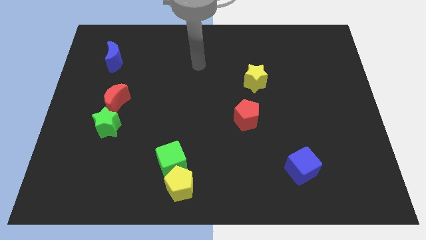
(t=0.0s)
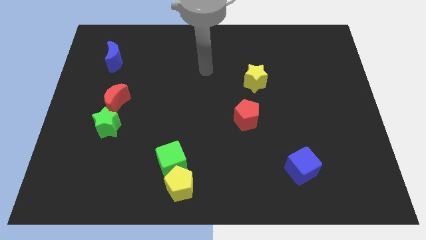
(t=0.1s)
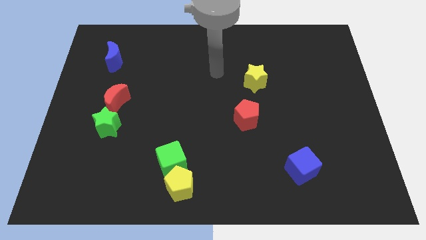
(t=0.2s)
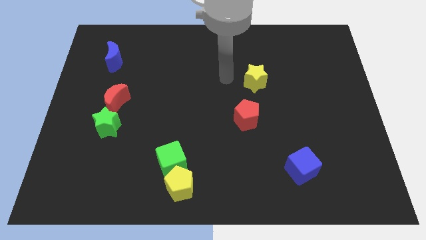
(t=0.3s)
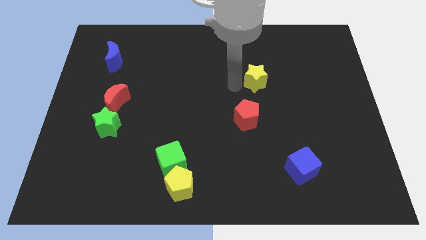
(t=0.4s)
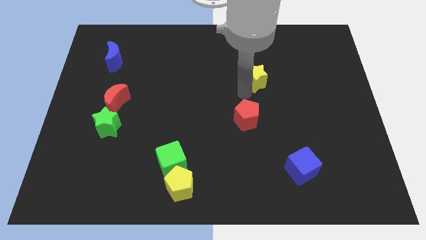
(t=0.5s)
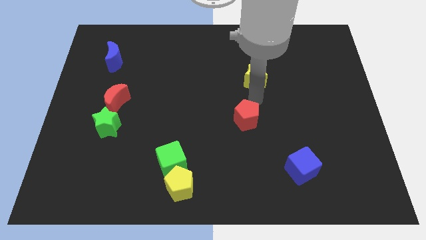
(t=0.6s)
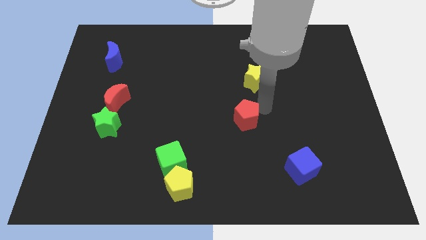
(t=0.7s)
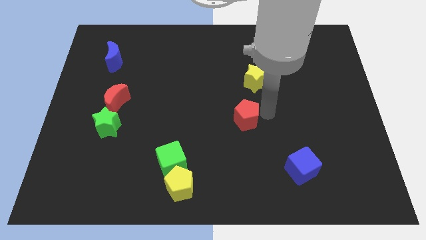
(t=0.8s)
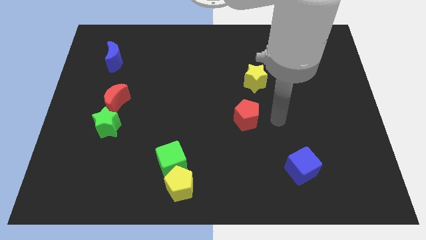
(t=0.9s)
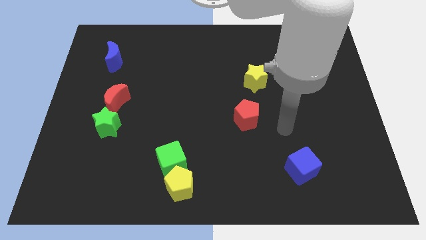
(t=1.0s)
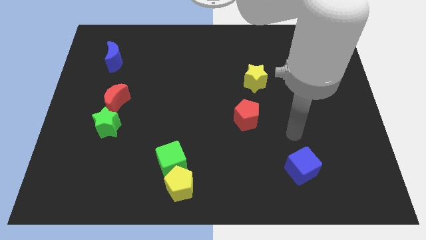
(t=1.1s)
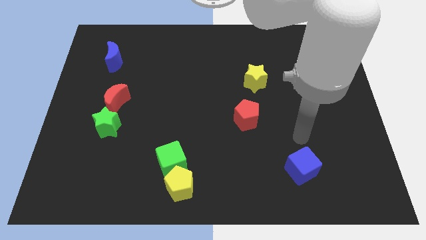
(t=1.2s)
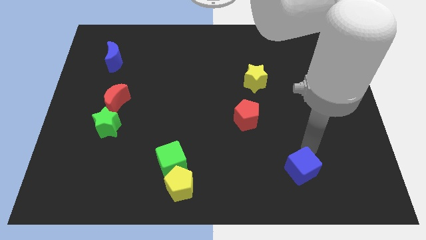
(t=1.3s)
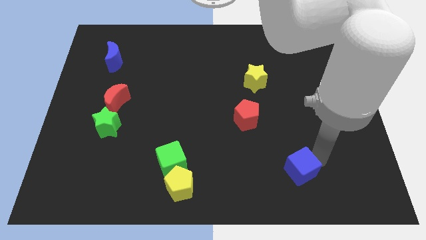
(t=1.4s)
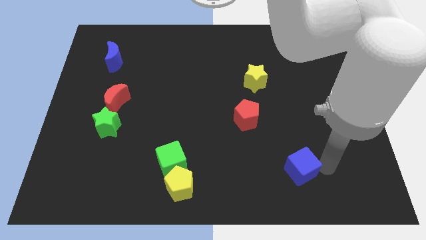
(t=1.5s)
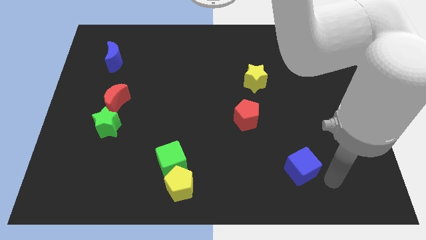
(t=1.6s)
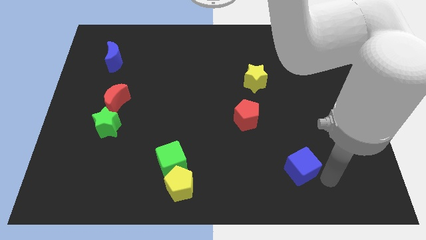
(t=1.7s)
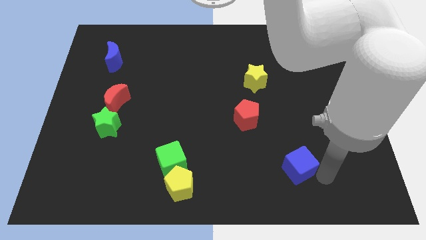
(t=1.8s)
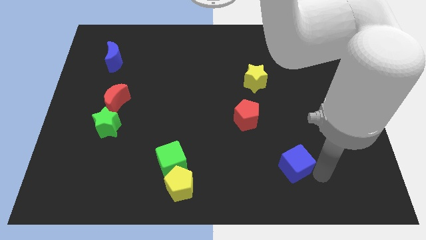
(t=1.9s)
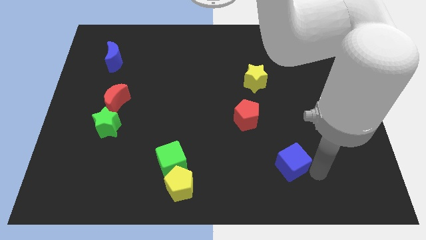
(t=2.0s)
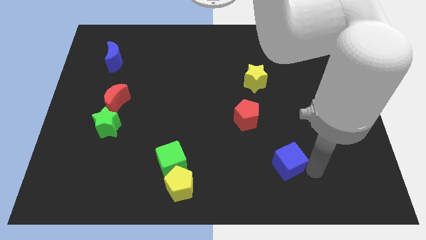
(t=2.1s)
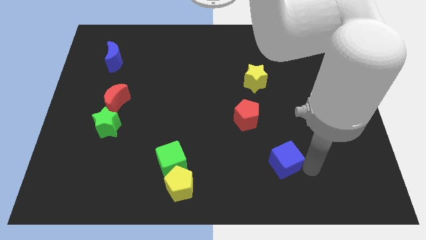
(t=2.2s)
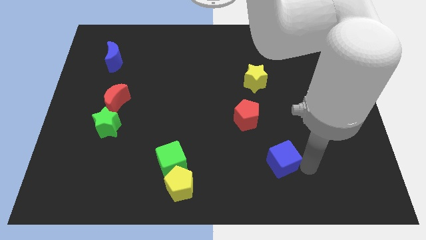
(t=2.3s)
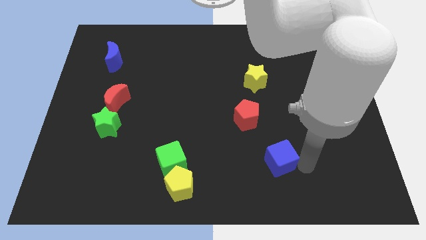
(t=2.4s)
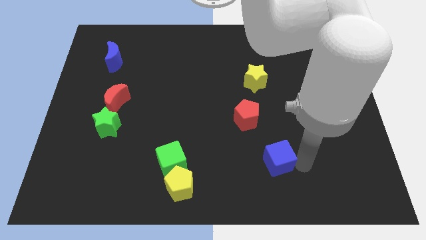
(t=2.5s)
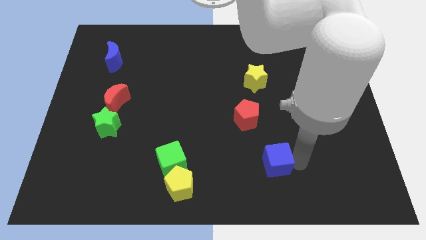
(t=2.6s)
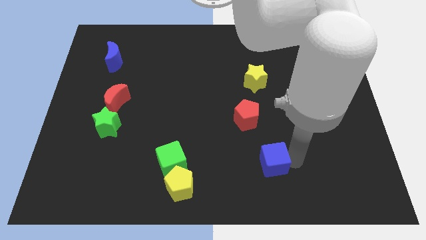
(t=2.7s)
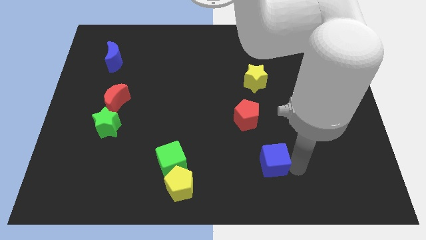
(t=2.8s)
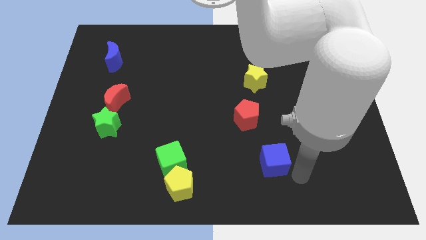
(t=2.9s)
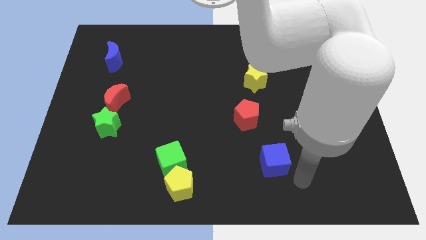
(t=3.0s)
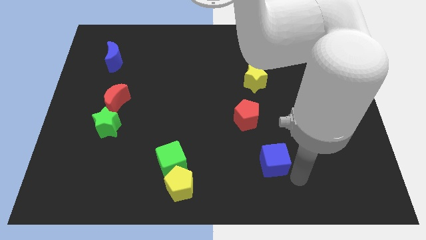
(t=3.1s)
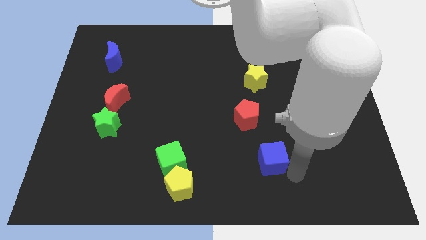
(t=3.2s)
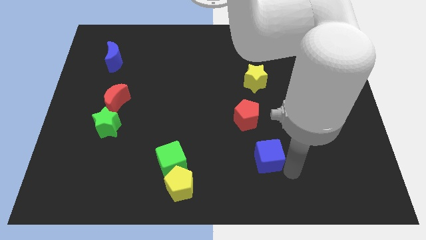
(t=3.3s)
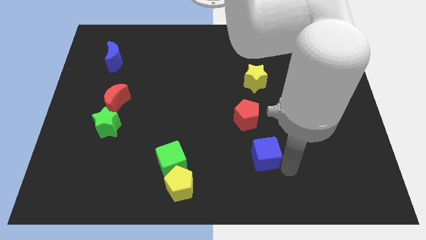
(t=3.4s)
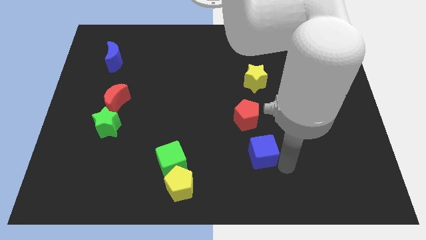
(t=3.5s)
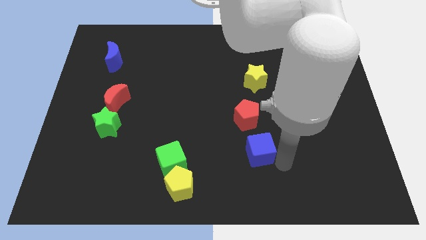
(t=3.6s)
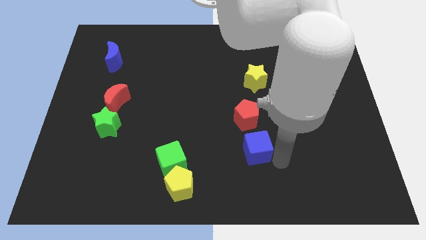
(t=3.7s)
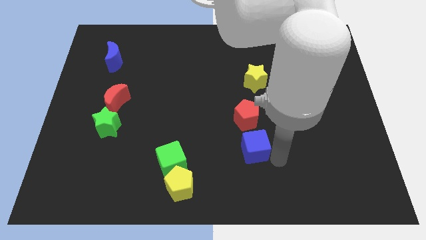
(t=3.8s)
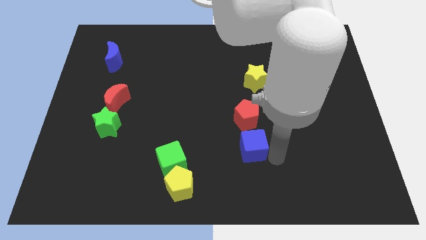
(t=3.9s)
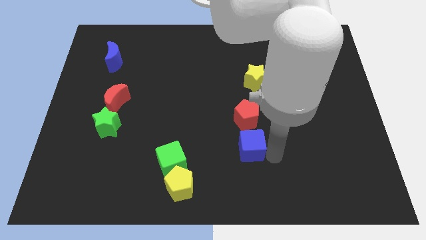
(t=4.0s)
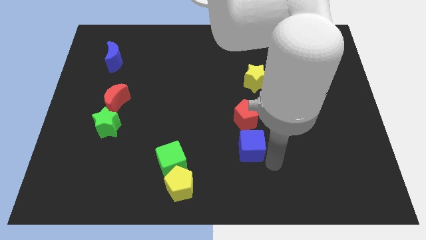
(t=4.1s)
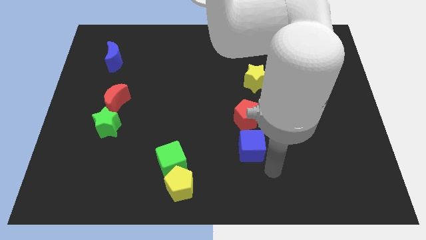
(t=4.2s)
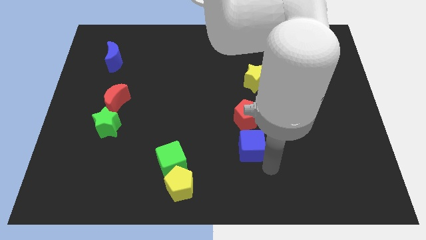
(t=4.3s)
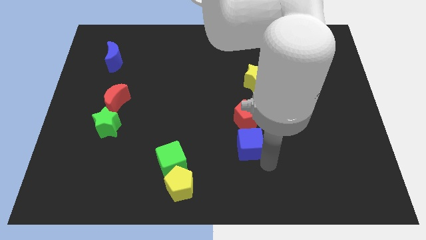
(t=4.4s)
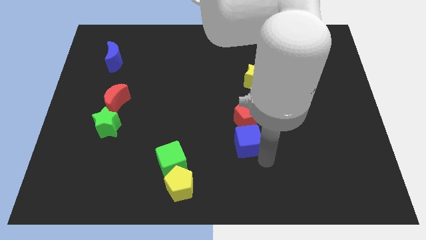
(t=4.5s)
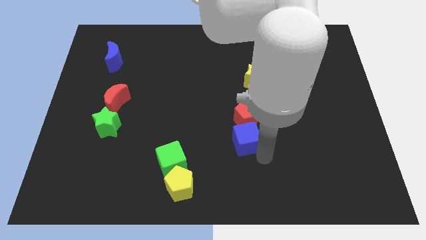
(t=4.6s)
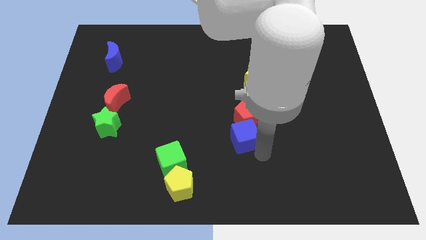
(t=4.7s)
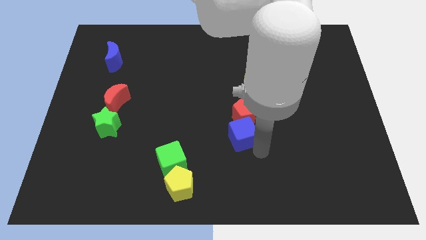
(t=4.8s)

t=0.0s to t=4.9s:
put the blue cube to the middle of the board
